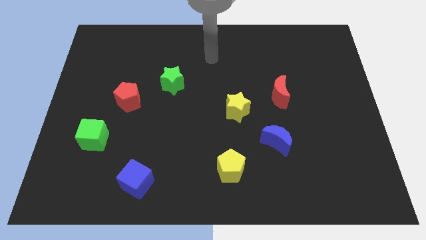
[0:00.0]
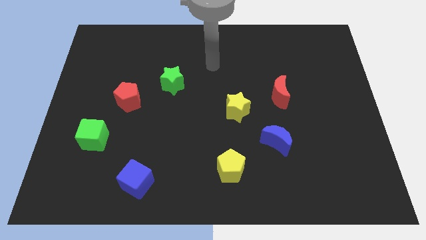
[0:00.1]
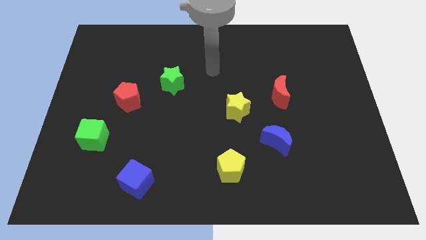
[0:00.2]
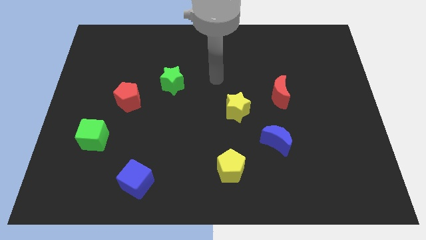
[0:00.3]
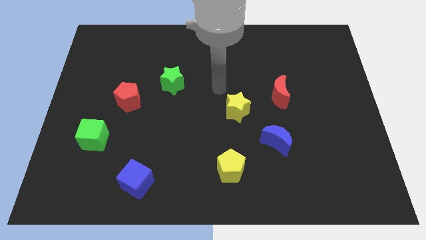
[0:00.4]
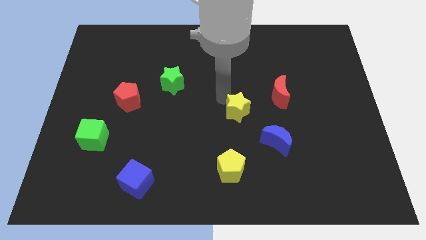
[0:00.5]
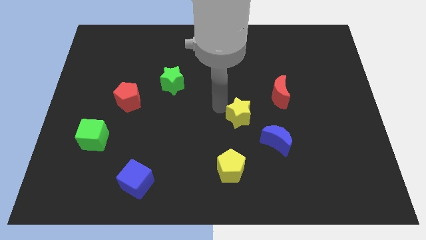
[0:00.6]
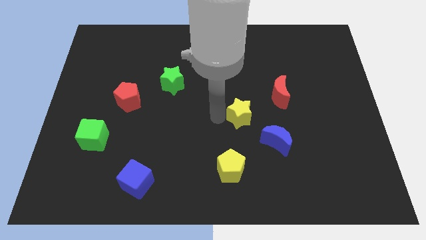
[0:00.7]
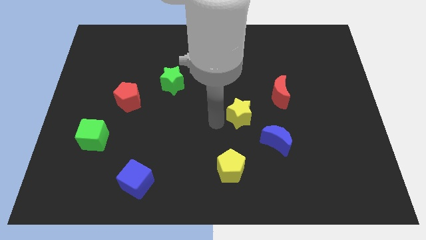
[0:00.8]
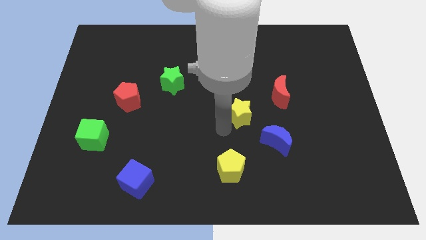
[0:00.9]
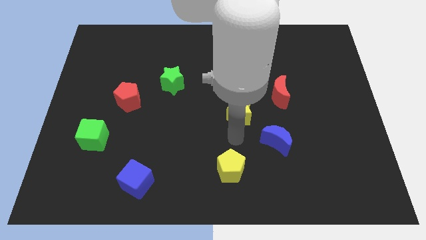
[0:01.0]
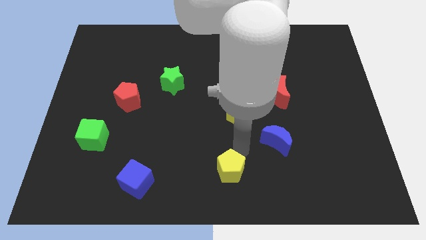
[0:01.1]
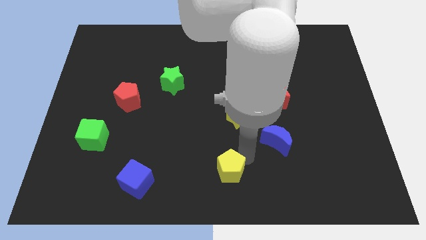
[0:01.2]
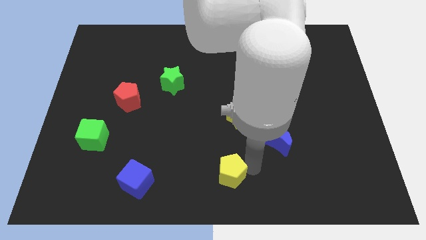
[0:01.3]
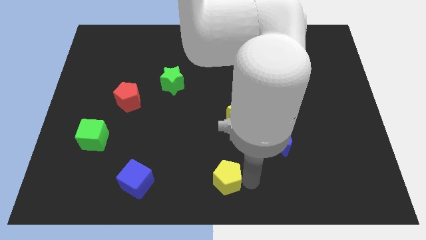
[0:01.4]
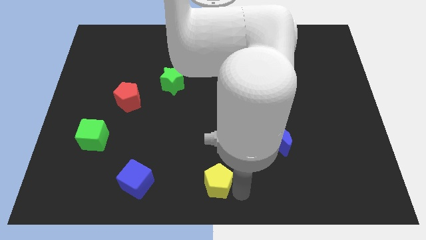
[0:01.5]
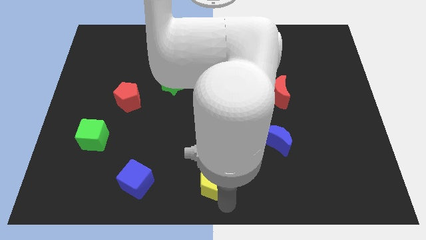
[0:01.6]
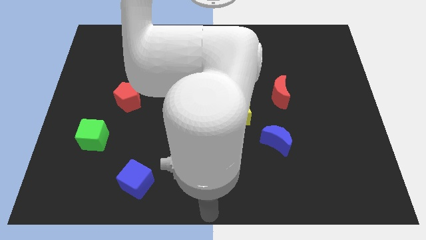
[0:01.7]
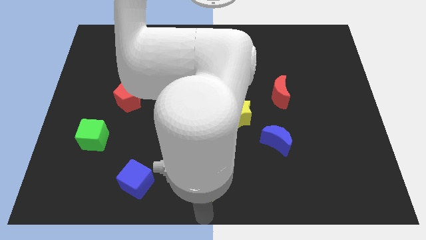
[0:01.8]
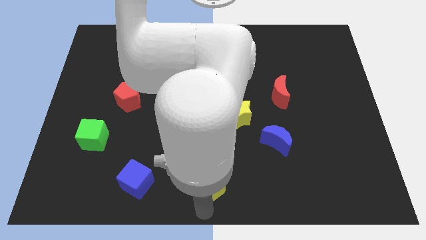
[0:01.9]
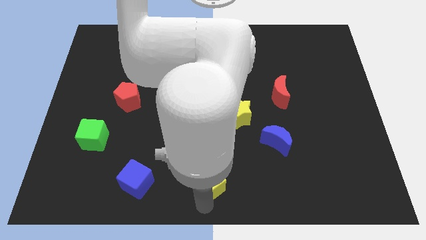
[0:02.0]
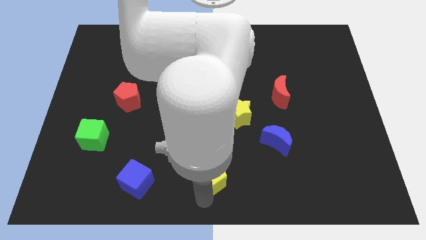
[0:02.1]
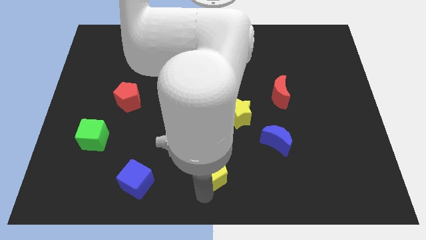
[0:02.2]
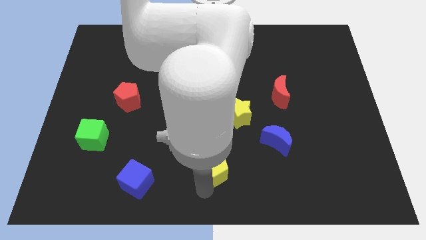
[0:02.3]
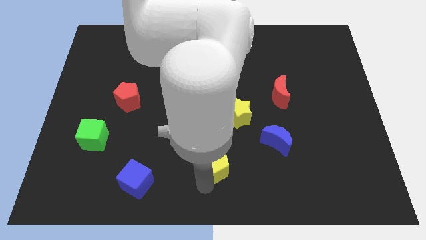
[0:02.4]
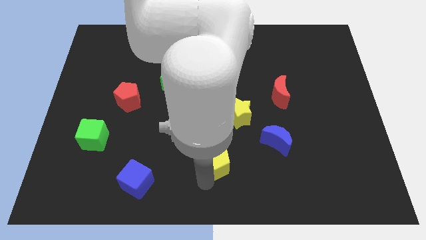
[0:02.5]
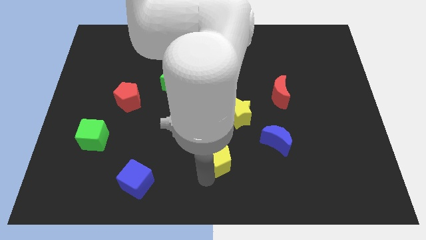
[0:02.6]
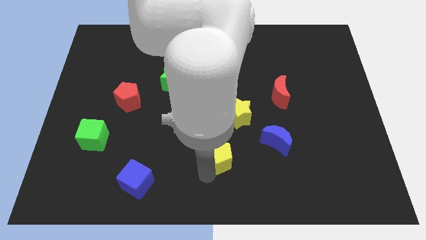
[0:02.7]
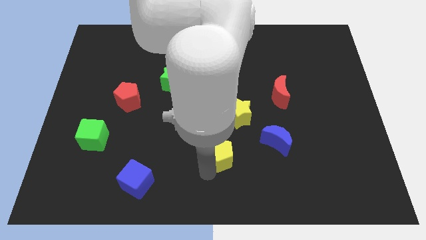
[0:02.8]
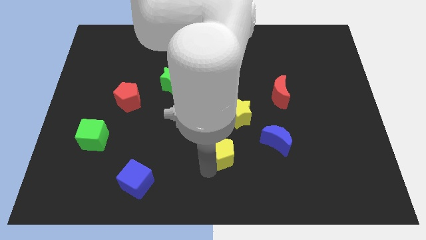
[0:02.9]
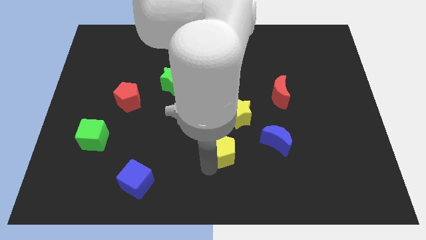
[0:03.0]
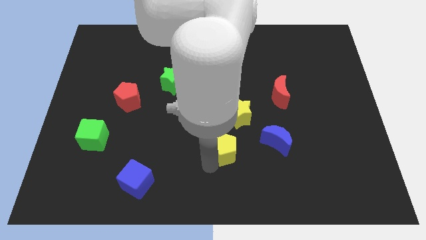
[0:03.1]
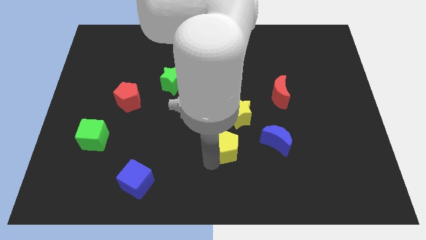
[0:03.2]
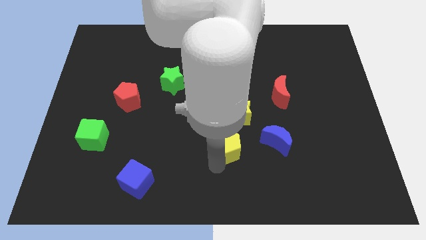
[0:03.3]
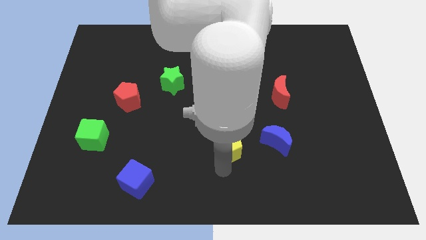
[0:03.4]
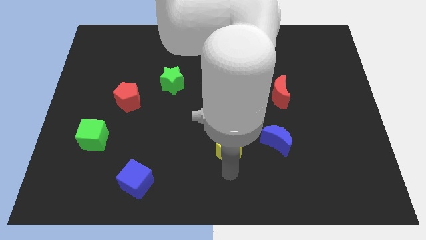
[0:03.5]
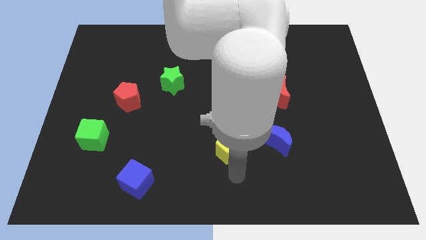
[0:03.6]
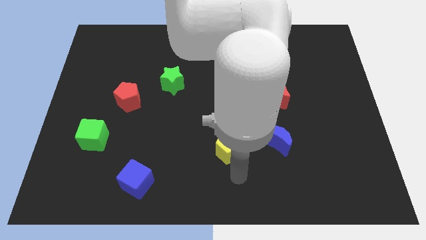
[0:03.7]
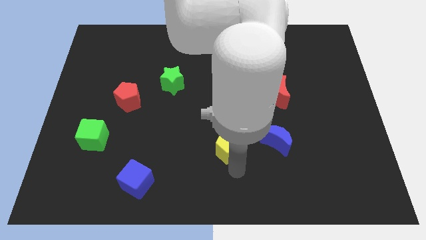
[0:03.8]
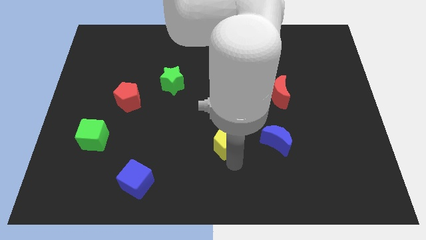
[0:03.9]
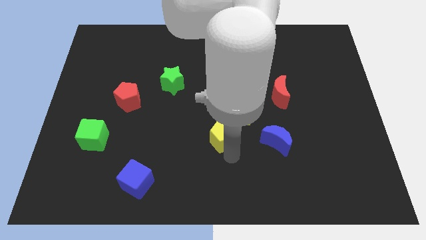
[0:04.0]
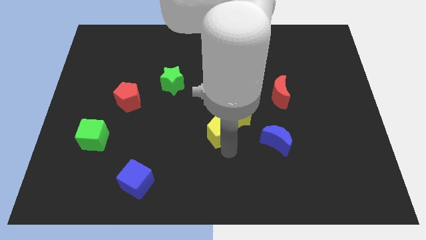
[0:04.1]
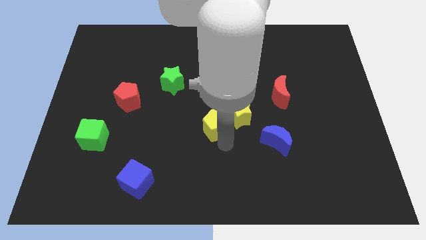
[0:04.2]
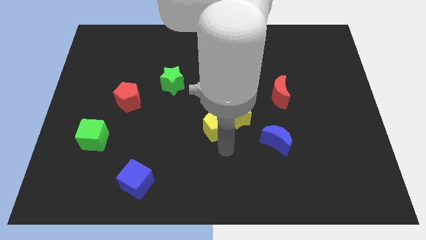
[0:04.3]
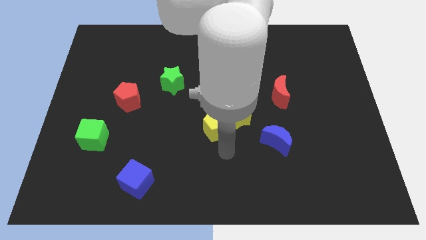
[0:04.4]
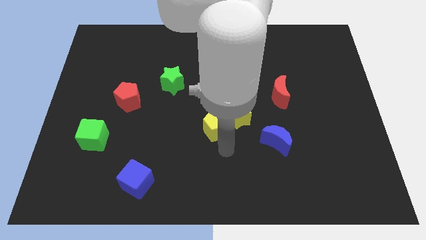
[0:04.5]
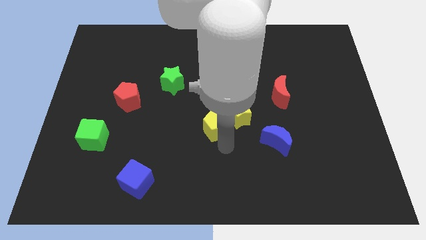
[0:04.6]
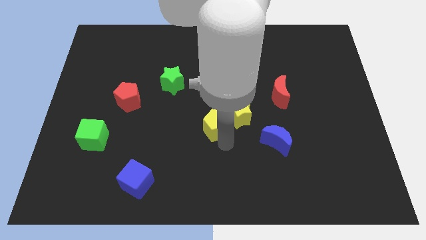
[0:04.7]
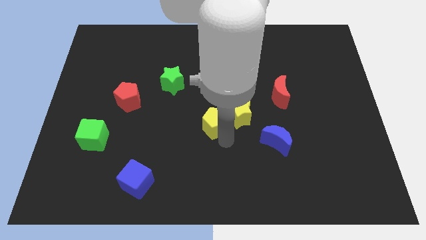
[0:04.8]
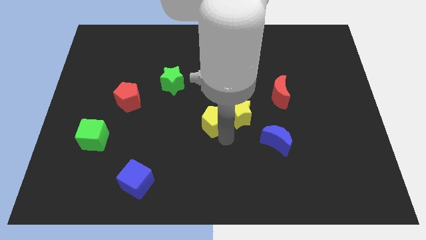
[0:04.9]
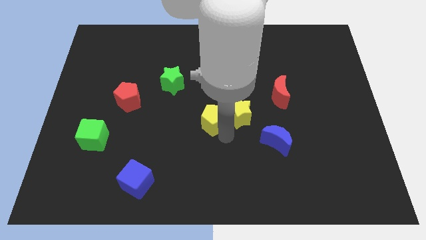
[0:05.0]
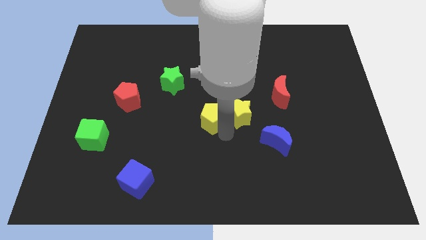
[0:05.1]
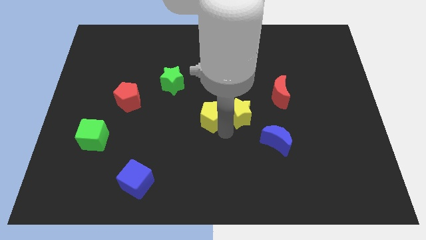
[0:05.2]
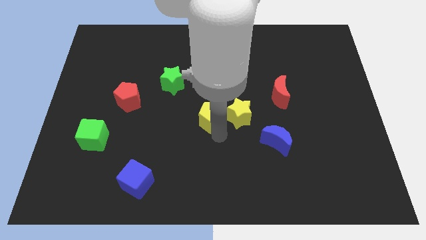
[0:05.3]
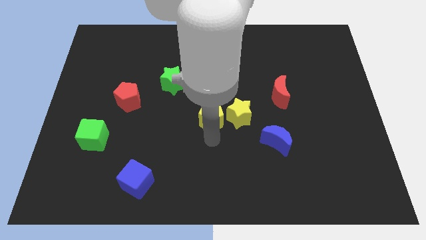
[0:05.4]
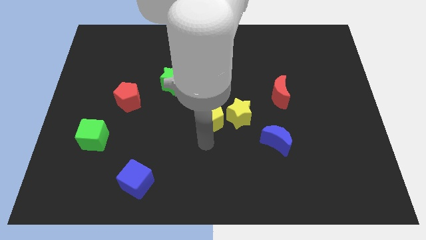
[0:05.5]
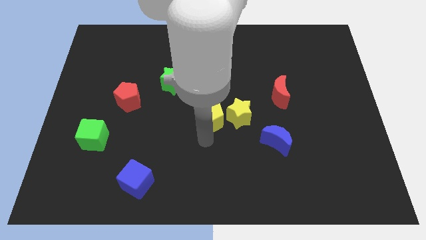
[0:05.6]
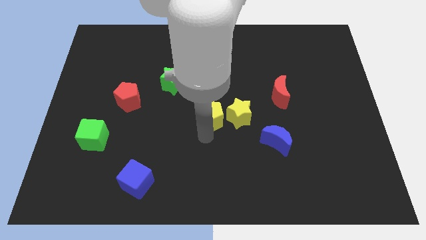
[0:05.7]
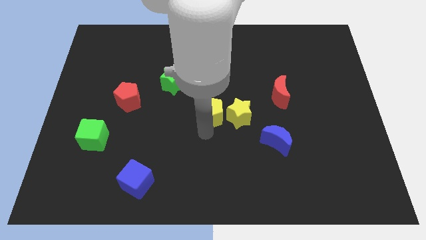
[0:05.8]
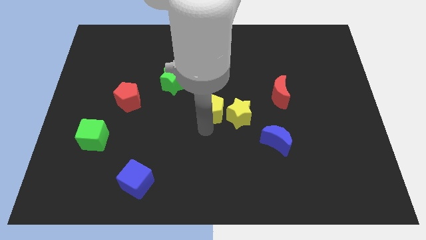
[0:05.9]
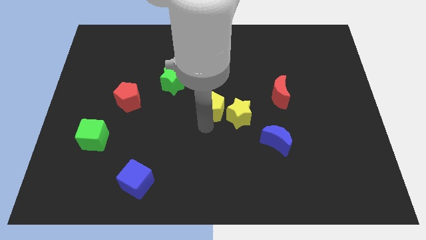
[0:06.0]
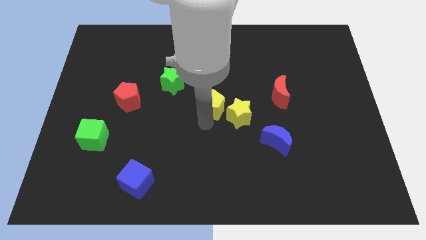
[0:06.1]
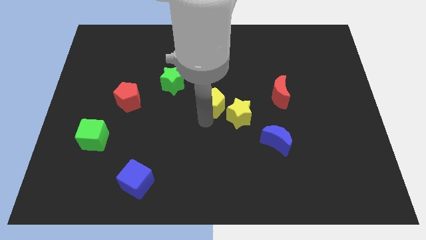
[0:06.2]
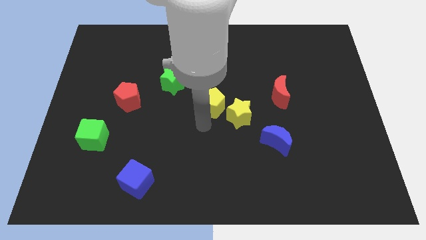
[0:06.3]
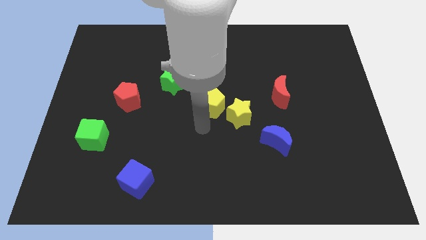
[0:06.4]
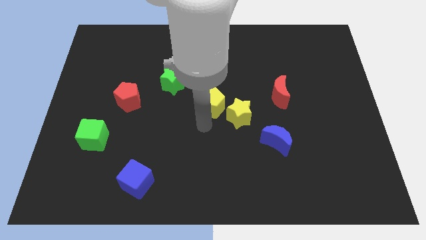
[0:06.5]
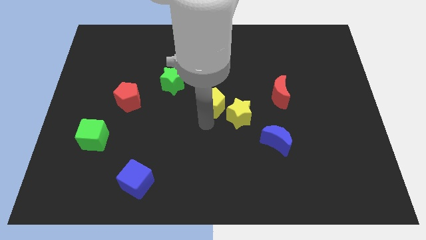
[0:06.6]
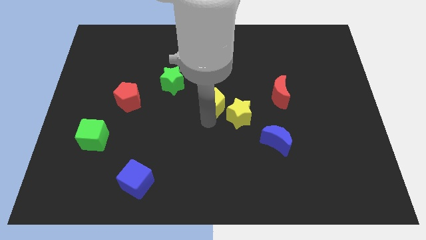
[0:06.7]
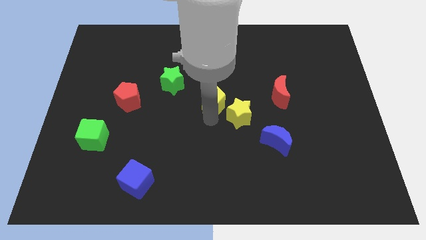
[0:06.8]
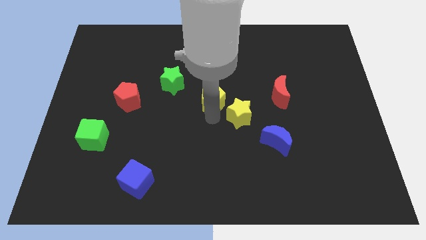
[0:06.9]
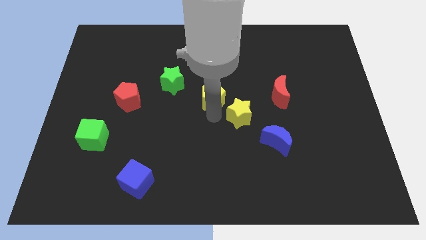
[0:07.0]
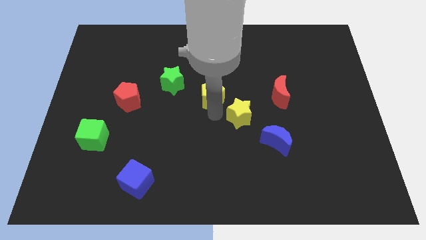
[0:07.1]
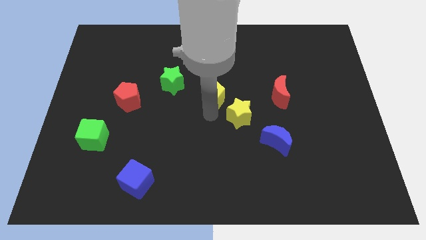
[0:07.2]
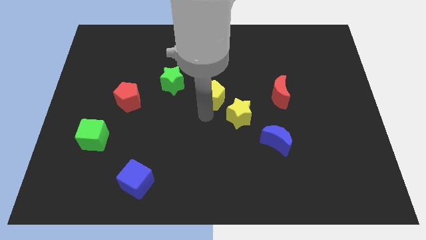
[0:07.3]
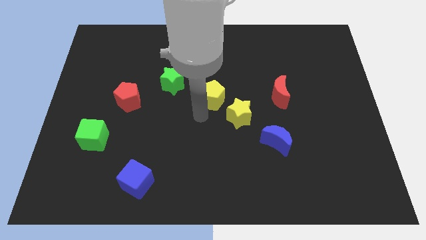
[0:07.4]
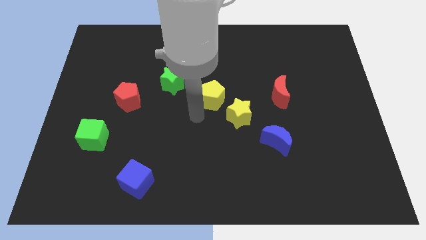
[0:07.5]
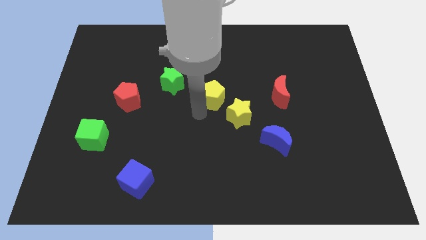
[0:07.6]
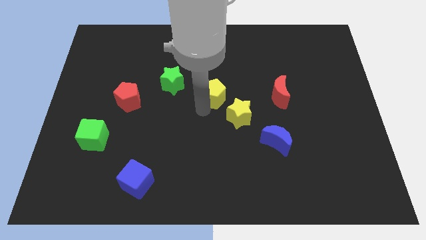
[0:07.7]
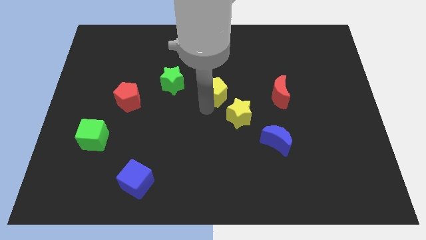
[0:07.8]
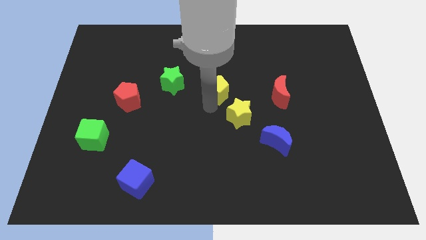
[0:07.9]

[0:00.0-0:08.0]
push the yellow pentagon upwards
